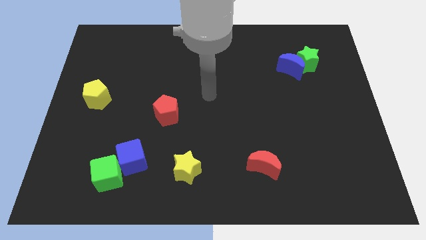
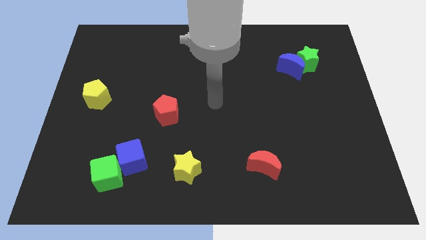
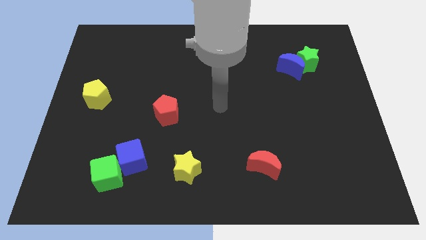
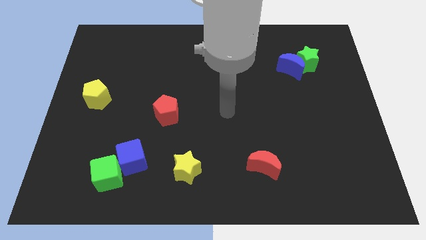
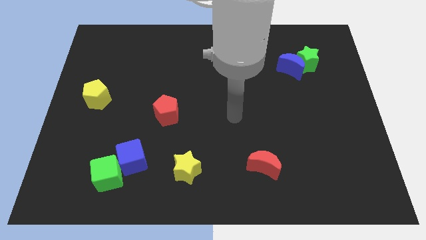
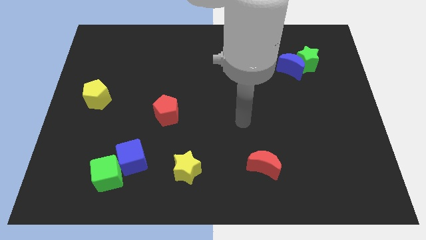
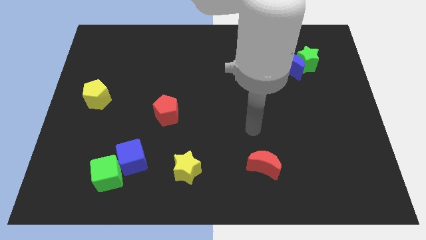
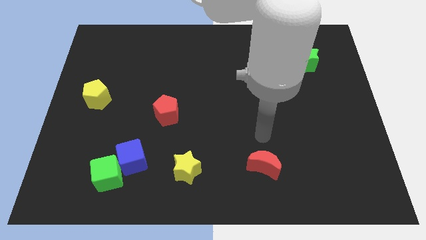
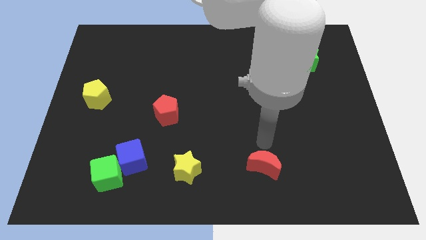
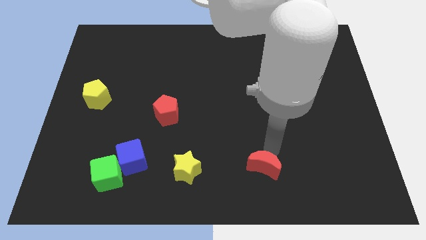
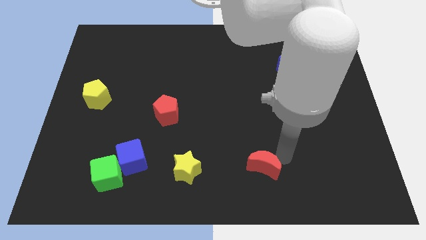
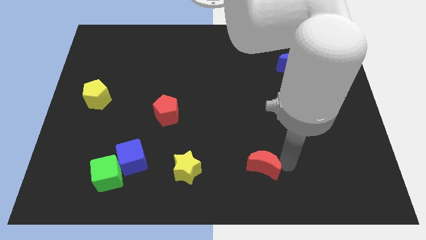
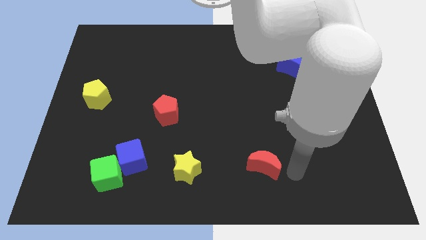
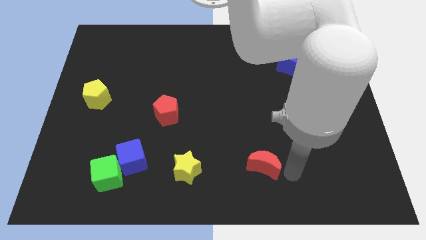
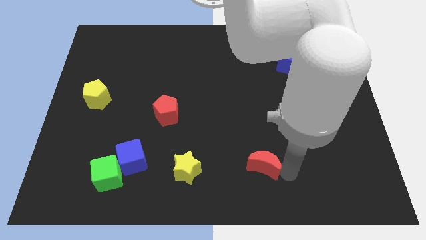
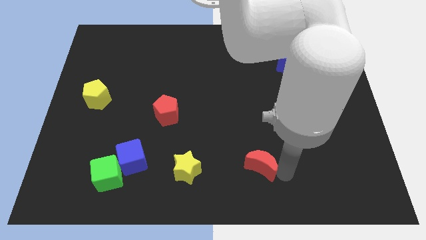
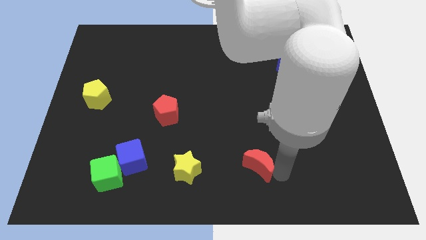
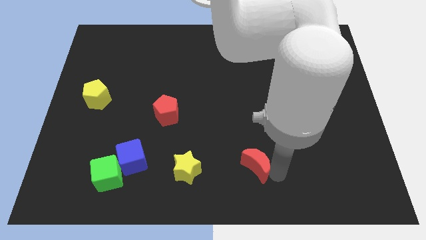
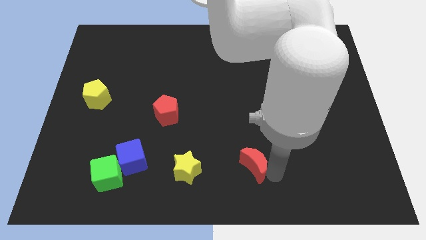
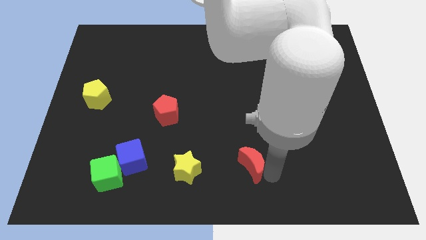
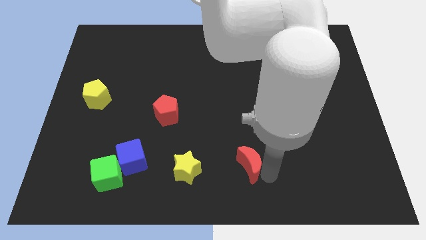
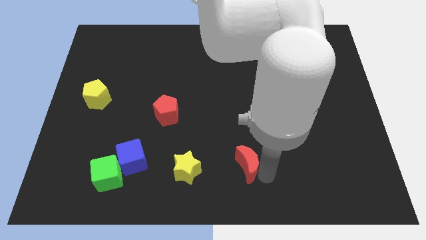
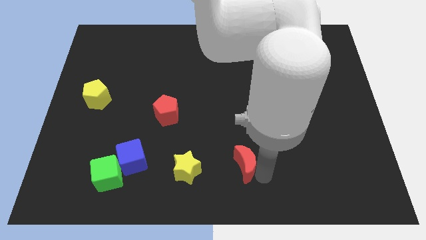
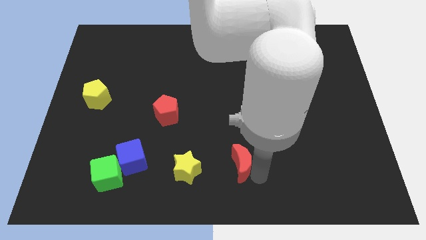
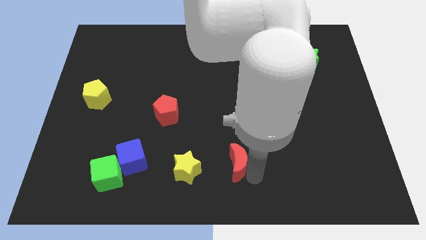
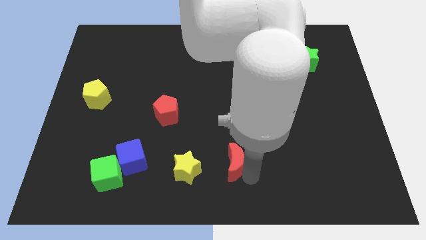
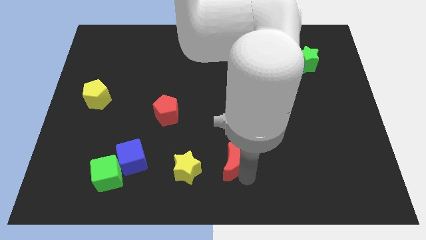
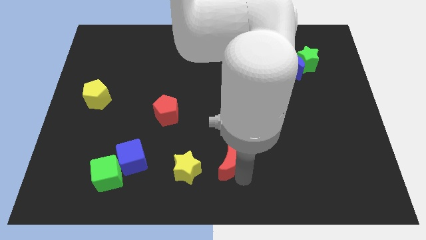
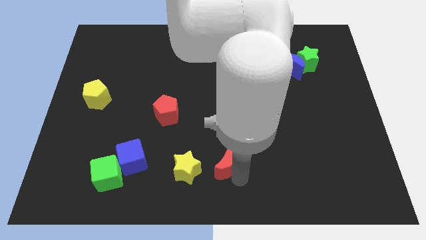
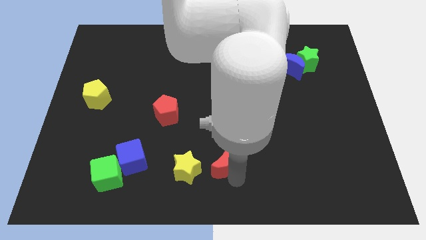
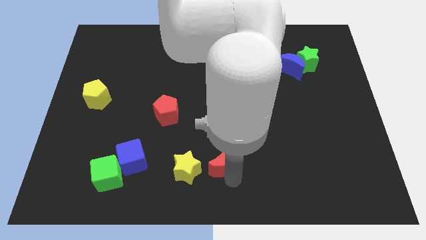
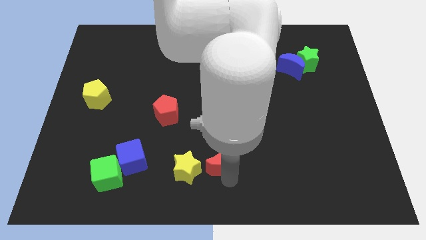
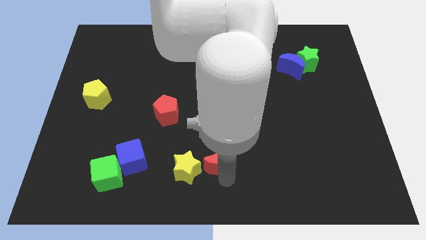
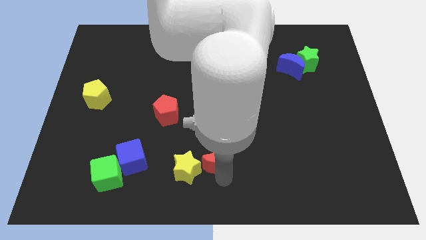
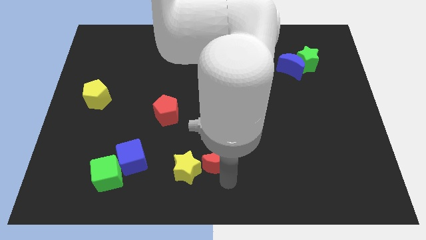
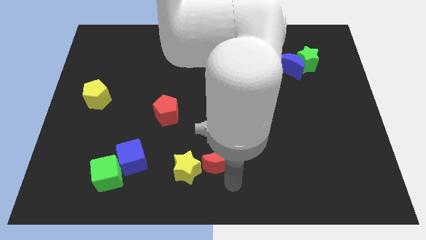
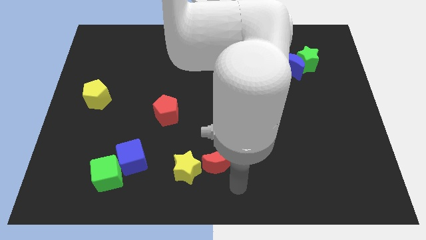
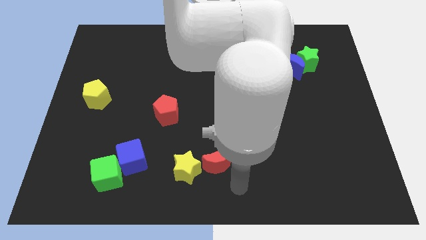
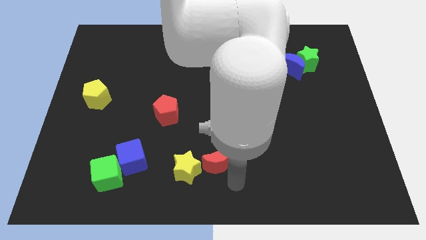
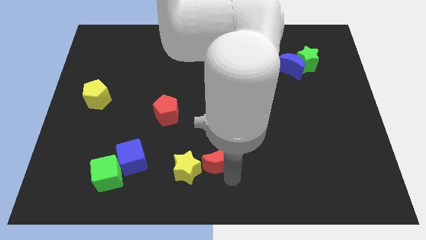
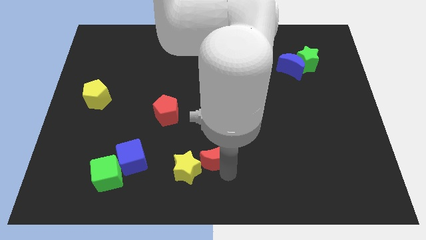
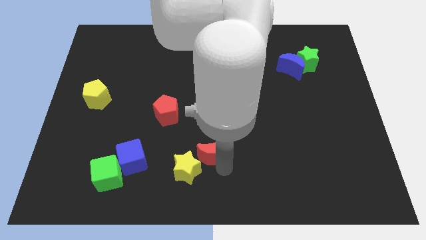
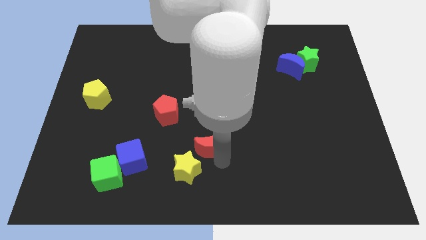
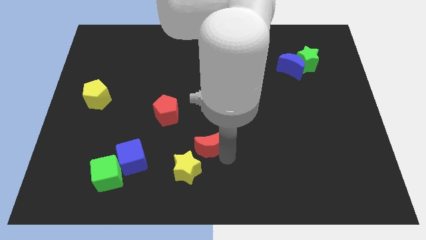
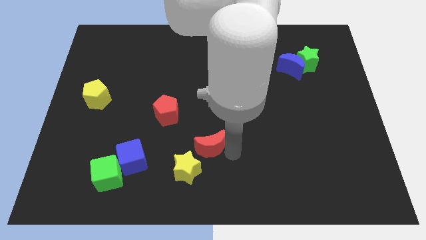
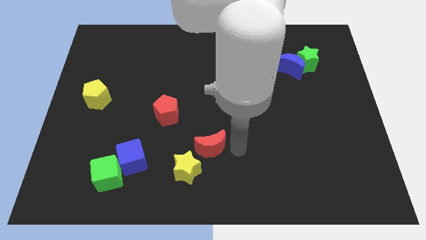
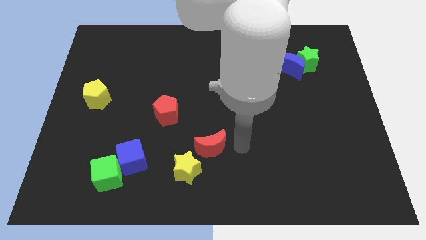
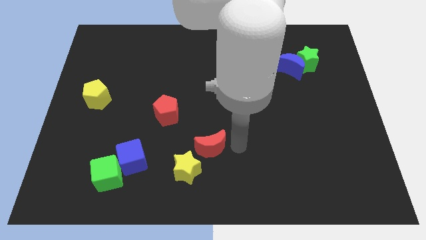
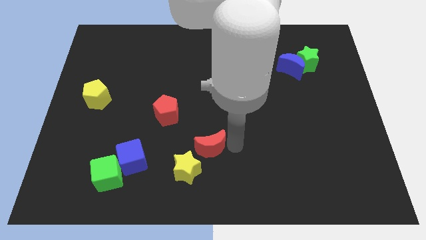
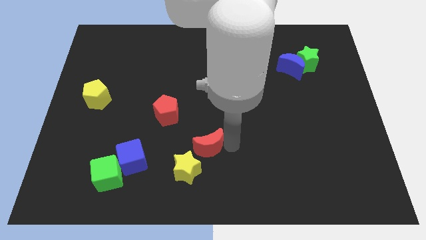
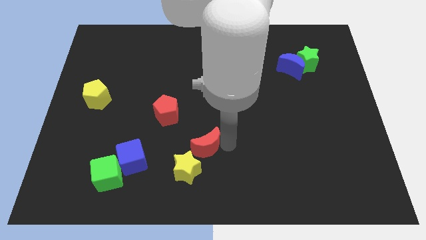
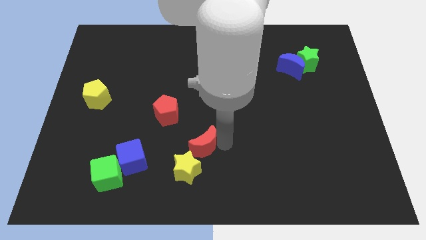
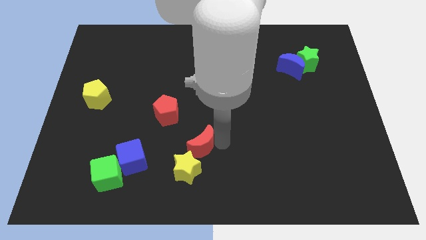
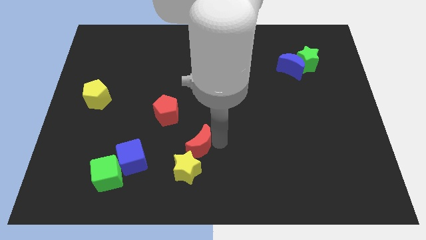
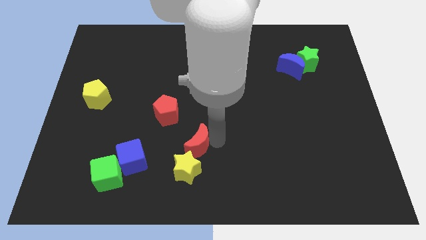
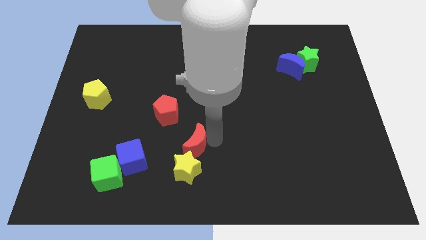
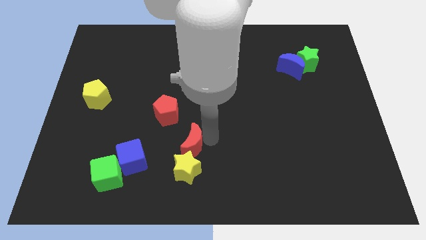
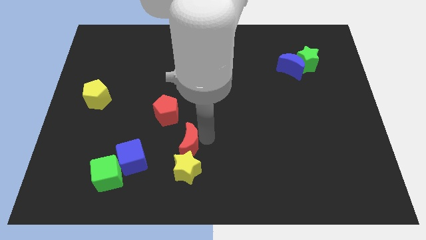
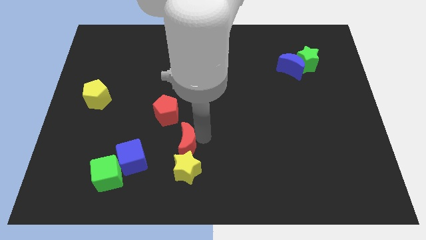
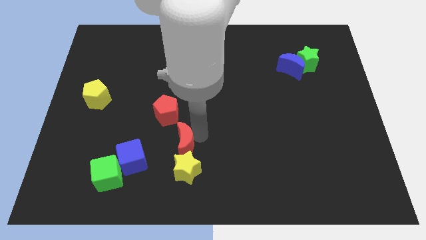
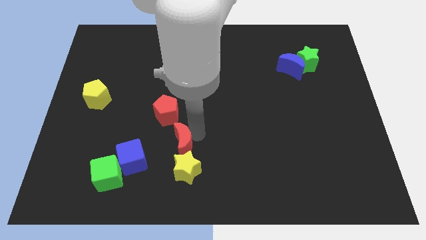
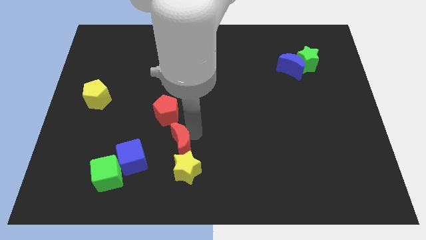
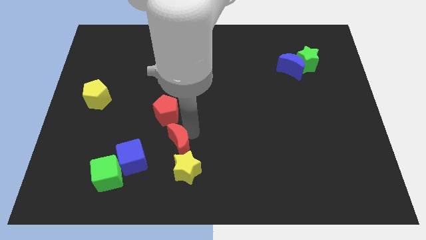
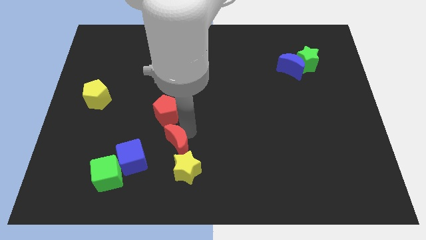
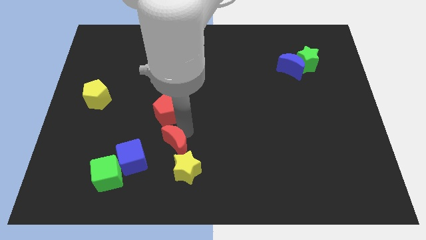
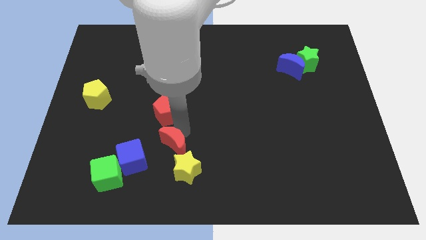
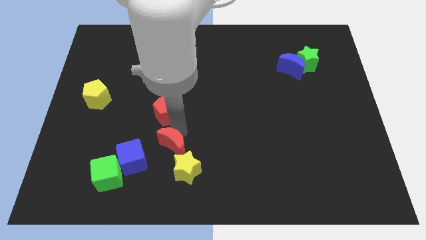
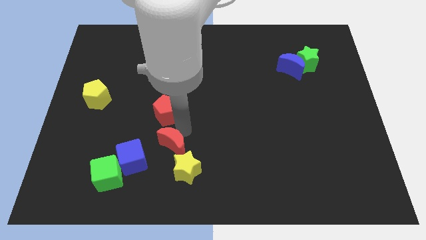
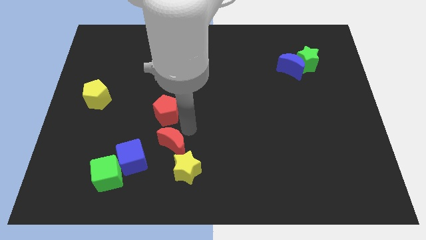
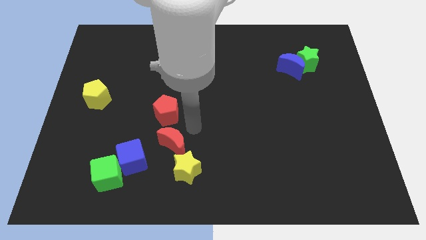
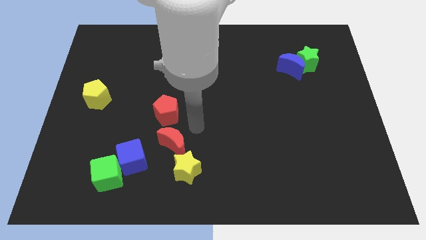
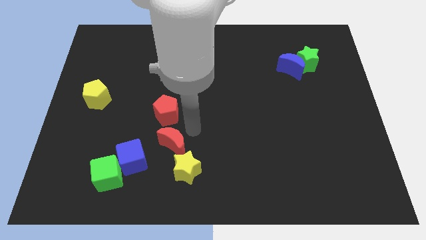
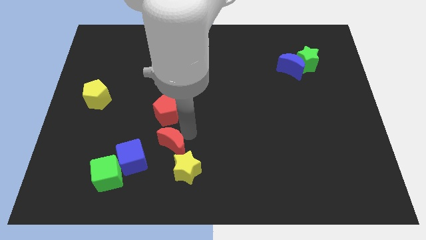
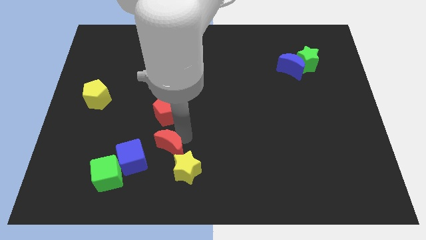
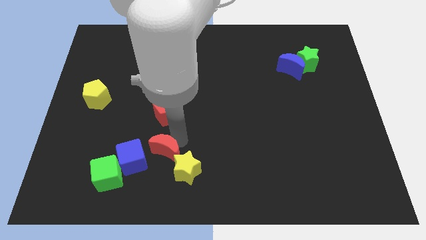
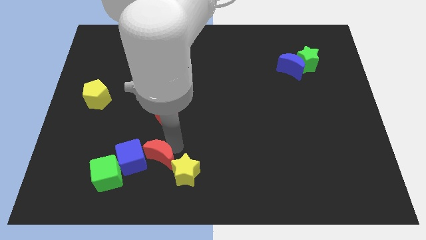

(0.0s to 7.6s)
slide the red moon next to the blue cube

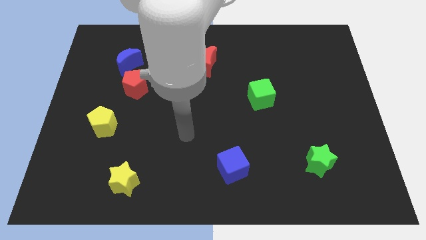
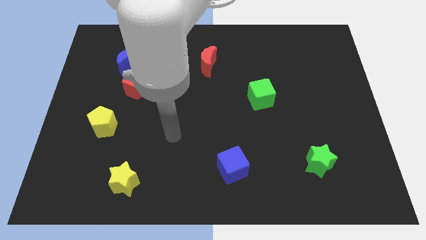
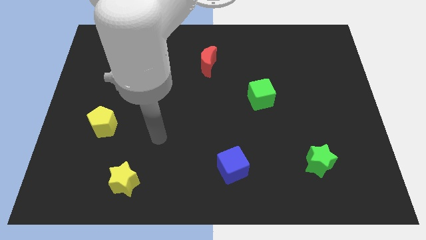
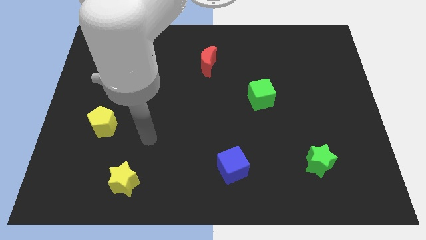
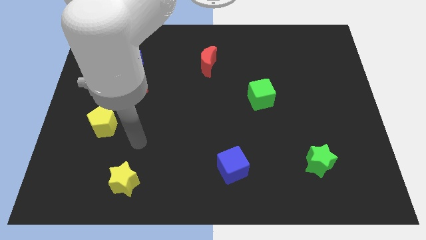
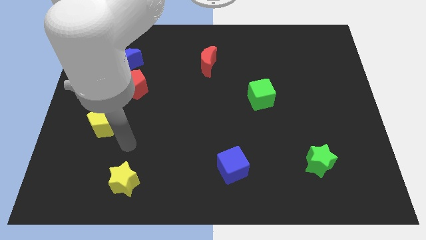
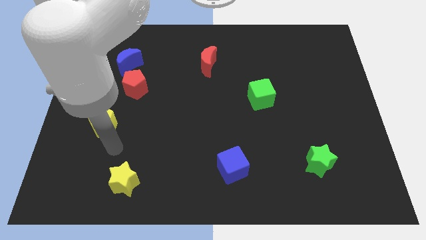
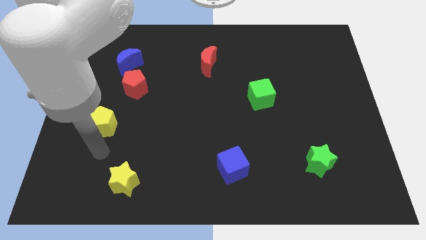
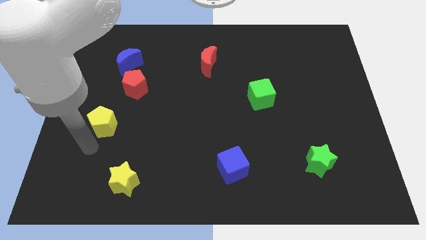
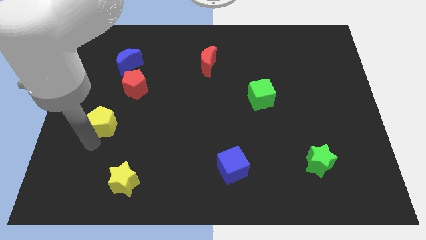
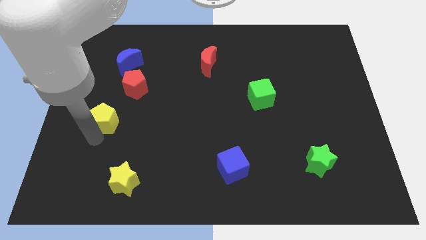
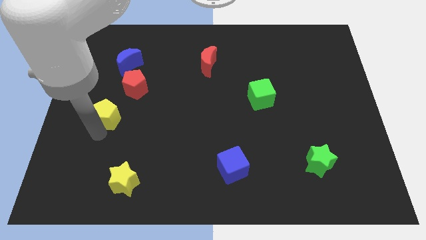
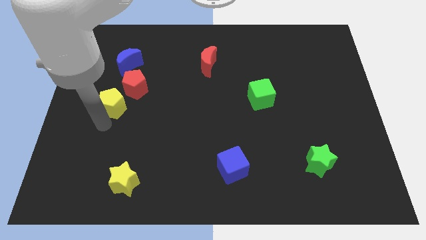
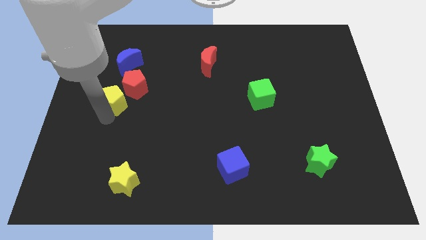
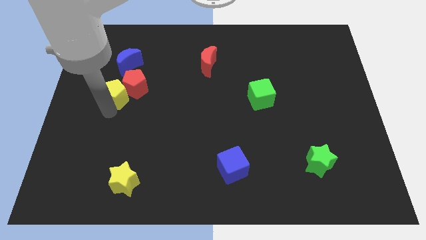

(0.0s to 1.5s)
put the yellow pentagon next to the red pentagon
